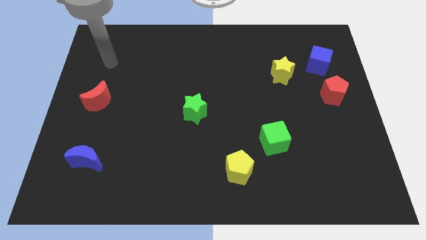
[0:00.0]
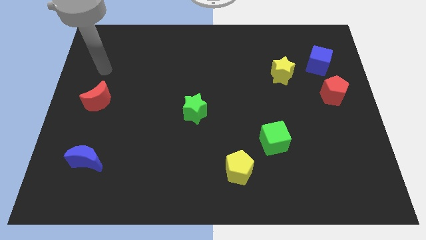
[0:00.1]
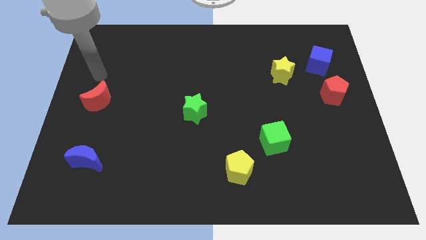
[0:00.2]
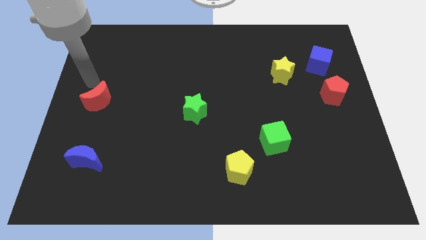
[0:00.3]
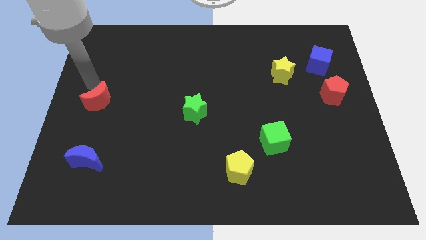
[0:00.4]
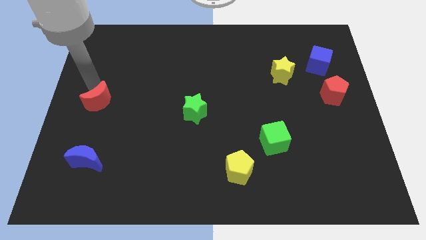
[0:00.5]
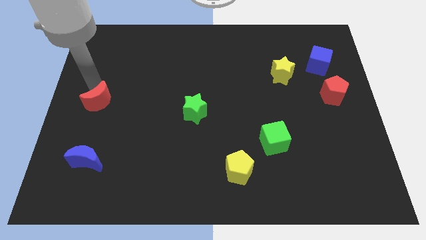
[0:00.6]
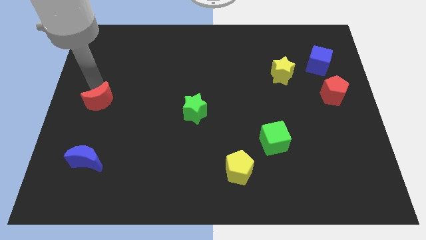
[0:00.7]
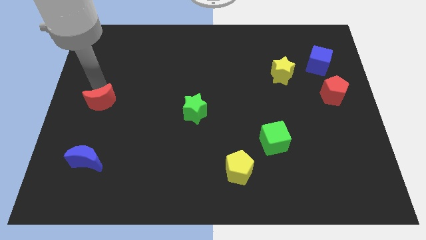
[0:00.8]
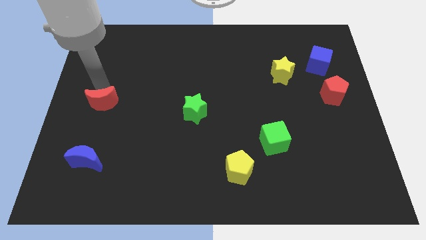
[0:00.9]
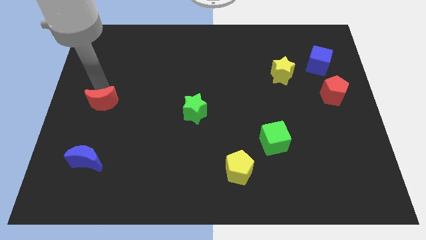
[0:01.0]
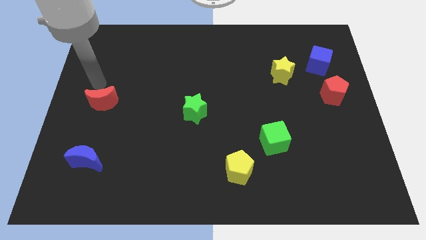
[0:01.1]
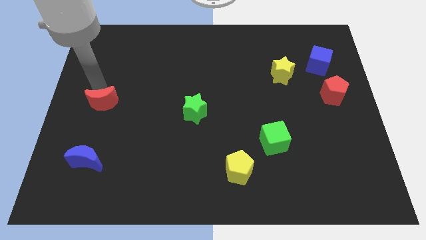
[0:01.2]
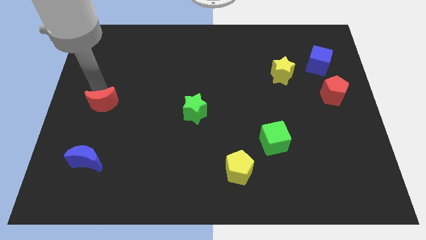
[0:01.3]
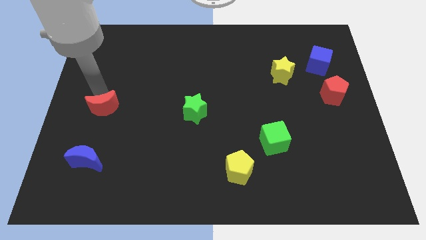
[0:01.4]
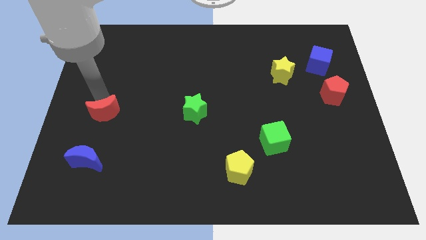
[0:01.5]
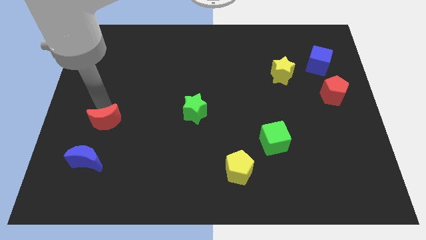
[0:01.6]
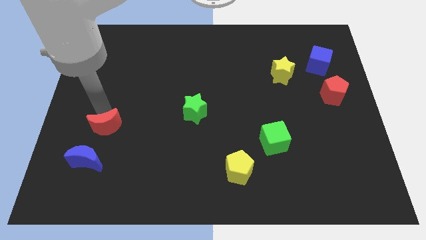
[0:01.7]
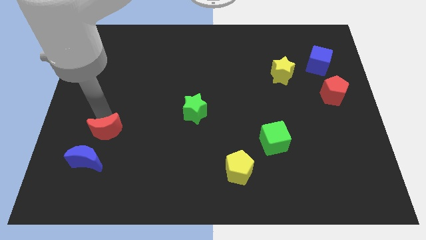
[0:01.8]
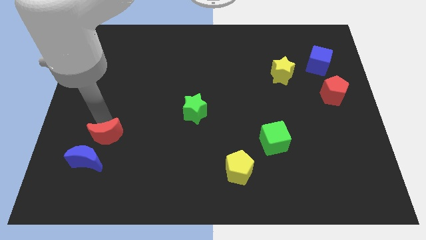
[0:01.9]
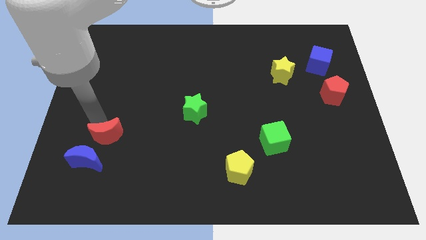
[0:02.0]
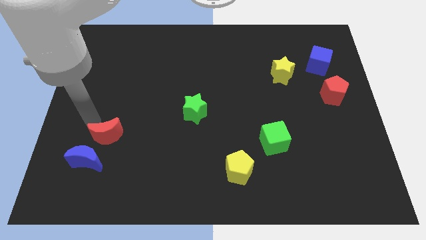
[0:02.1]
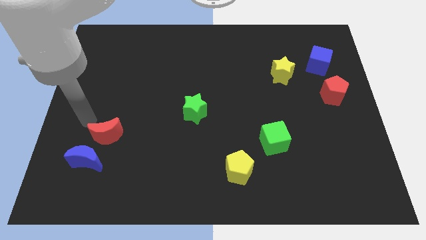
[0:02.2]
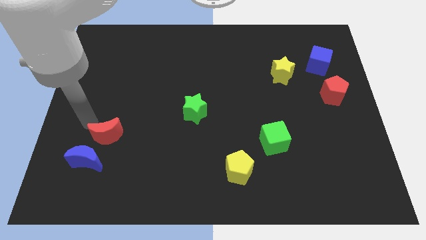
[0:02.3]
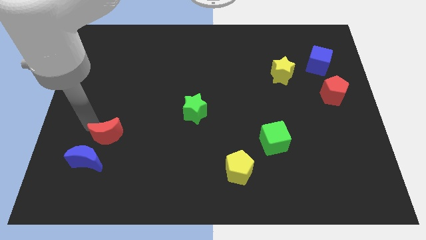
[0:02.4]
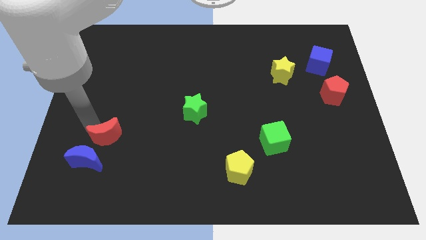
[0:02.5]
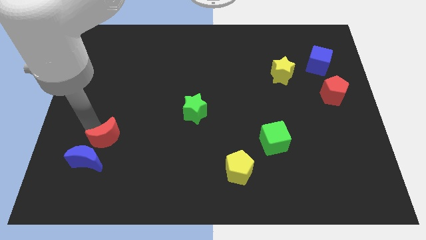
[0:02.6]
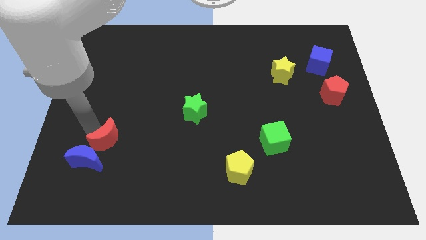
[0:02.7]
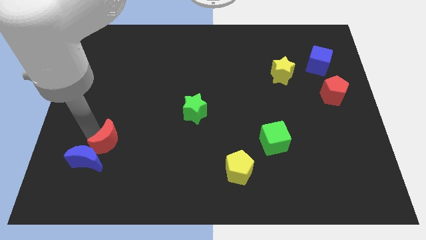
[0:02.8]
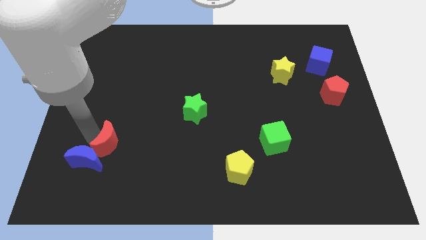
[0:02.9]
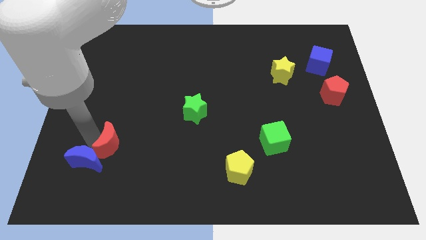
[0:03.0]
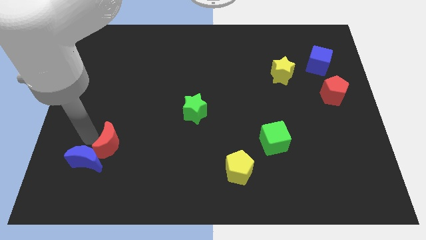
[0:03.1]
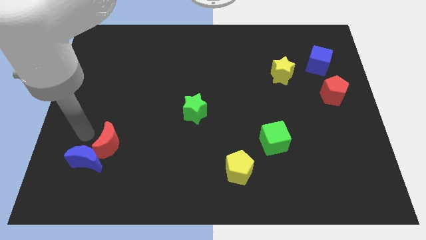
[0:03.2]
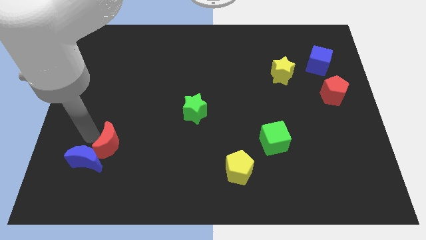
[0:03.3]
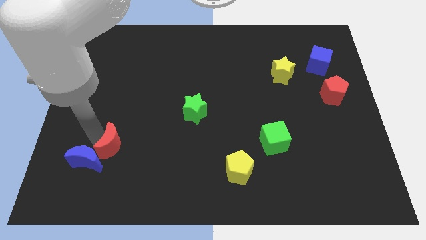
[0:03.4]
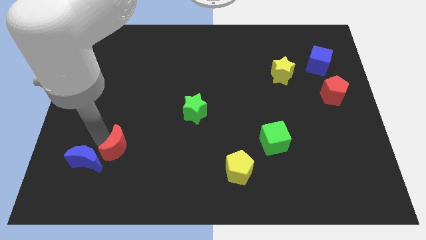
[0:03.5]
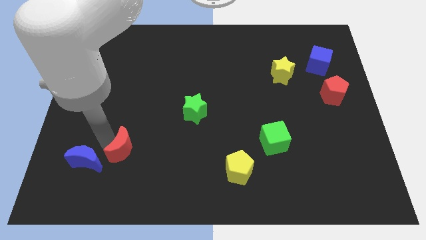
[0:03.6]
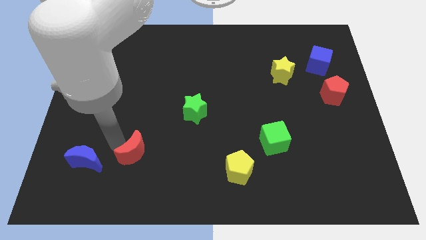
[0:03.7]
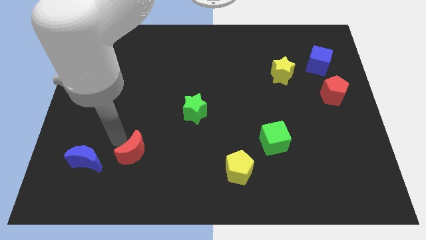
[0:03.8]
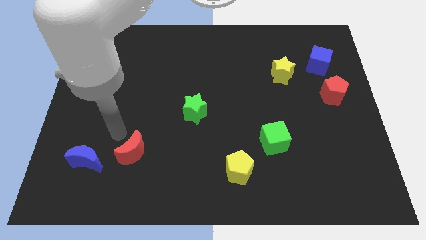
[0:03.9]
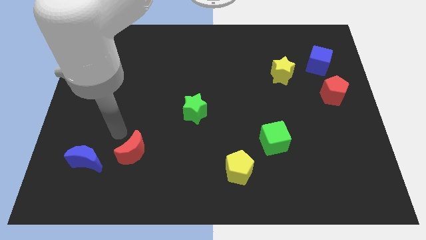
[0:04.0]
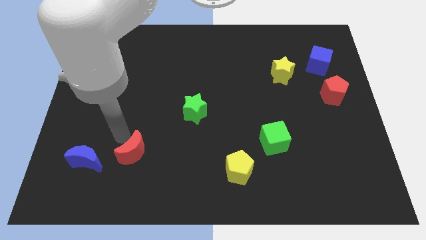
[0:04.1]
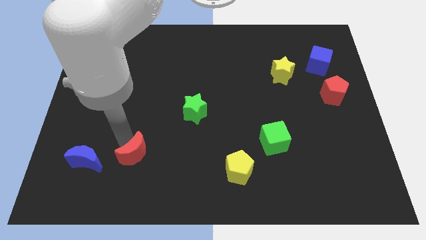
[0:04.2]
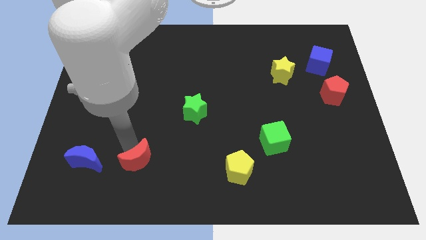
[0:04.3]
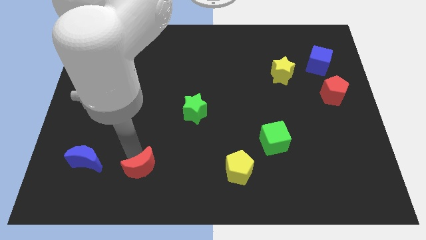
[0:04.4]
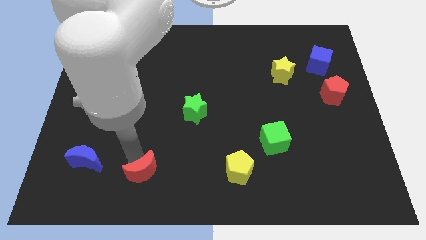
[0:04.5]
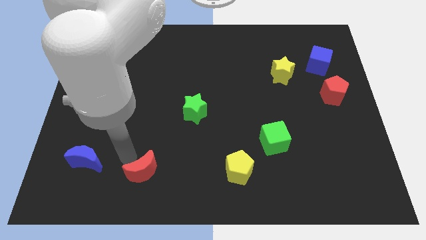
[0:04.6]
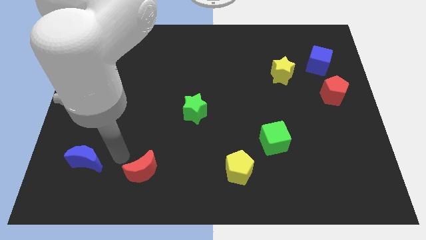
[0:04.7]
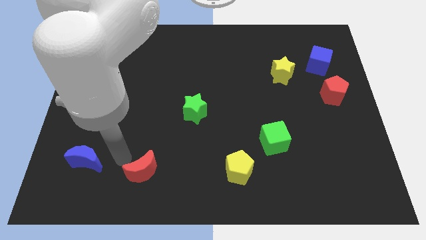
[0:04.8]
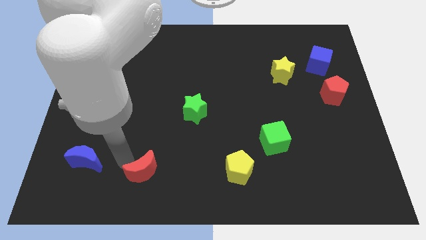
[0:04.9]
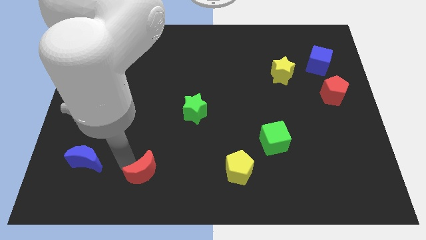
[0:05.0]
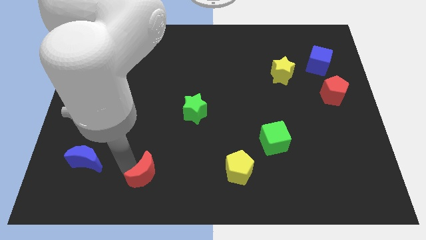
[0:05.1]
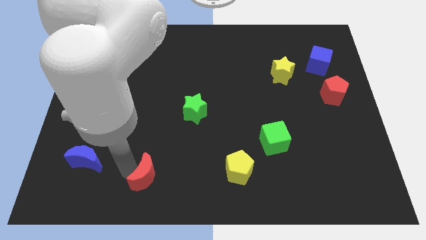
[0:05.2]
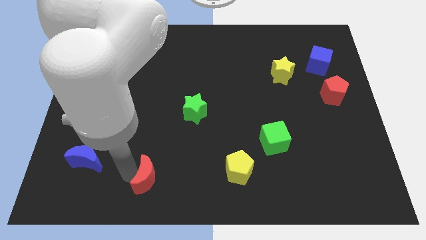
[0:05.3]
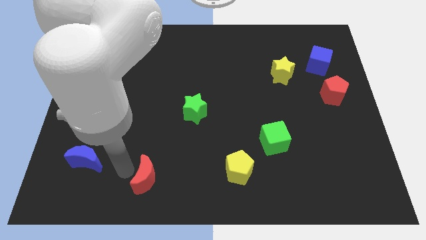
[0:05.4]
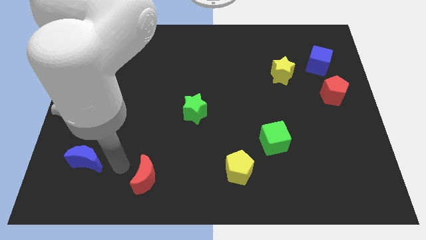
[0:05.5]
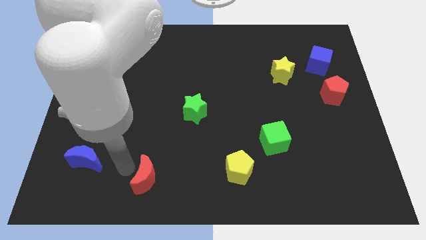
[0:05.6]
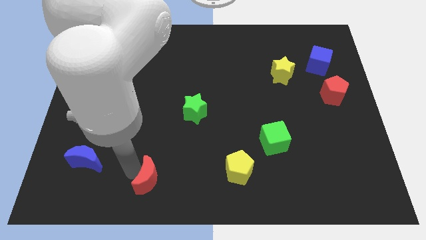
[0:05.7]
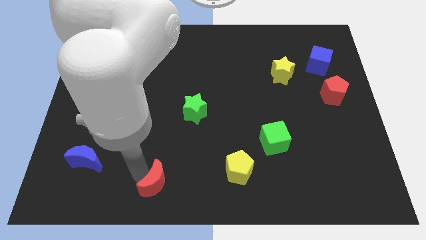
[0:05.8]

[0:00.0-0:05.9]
slide the red moon to the bottom side
